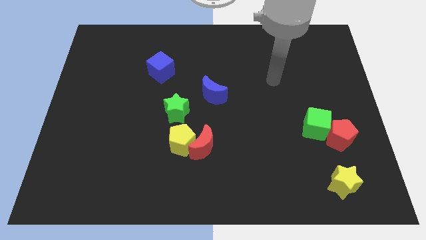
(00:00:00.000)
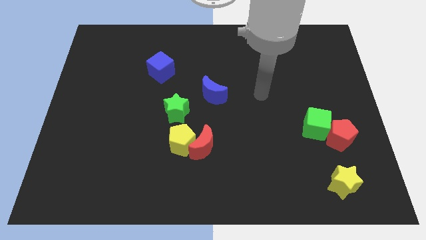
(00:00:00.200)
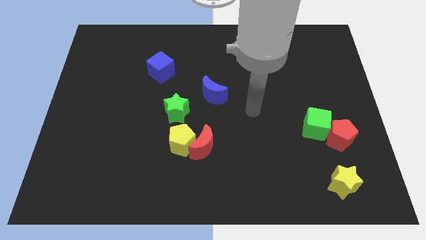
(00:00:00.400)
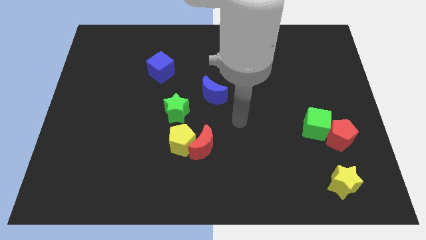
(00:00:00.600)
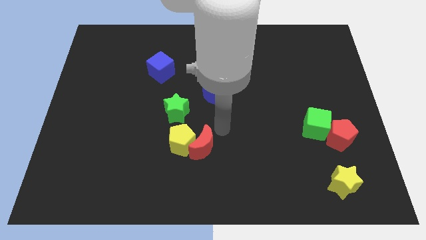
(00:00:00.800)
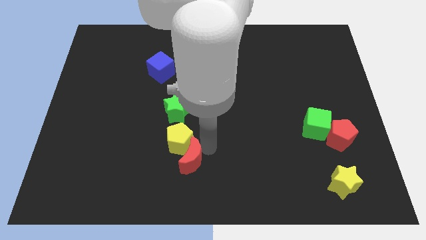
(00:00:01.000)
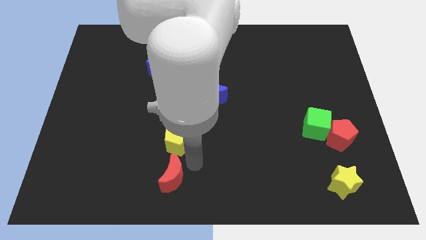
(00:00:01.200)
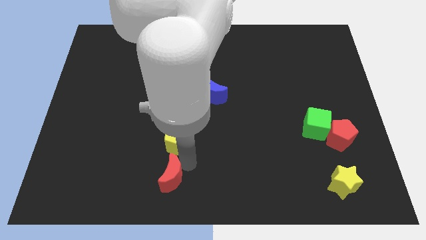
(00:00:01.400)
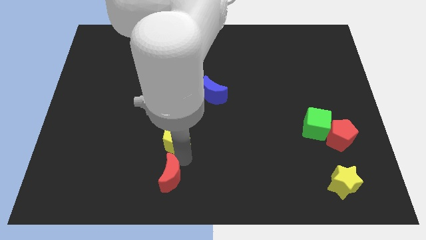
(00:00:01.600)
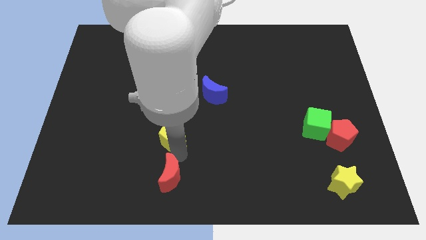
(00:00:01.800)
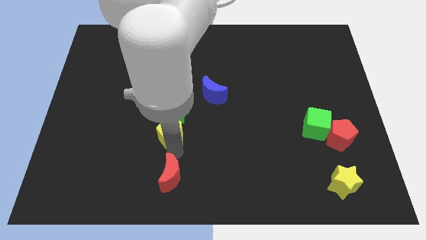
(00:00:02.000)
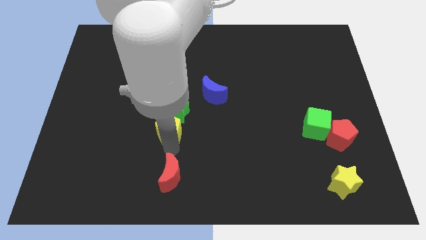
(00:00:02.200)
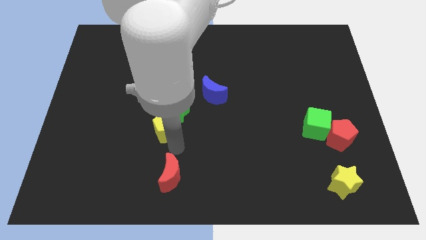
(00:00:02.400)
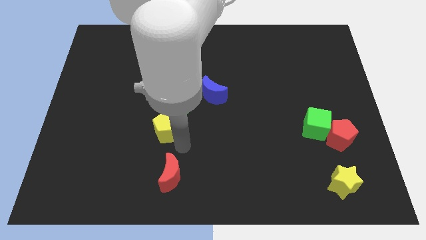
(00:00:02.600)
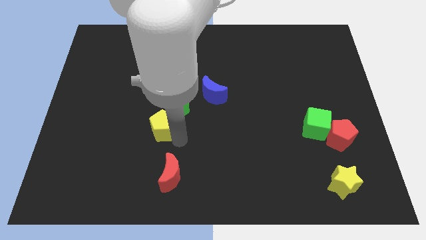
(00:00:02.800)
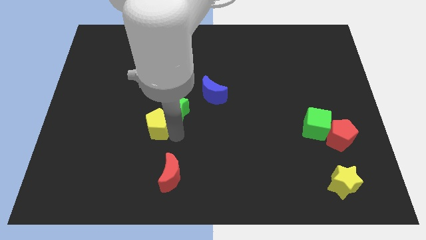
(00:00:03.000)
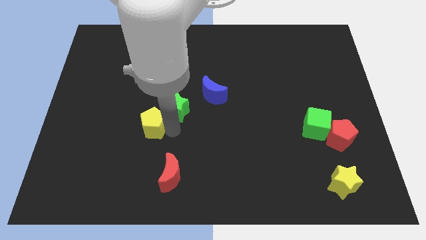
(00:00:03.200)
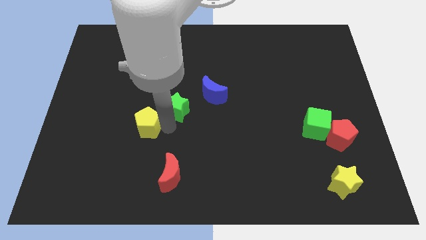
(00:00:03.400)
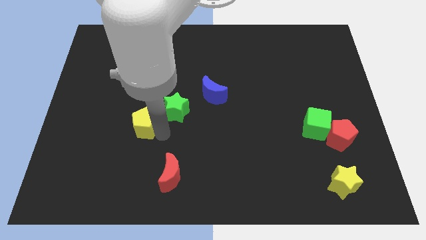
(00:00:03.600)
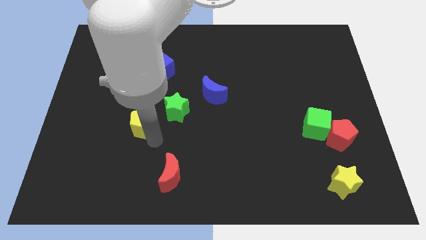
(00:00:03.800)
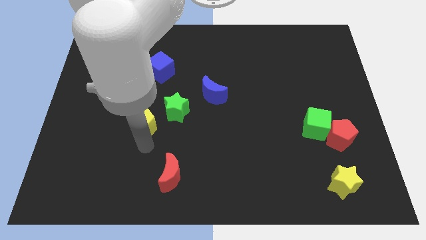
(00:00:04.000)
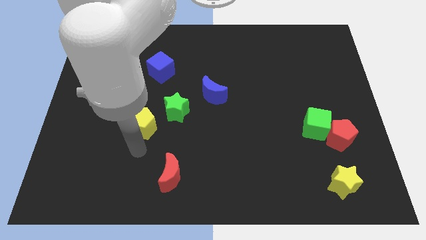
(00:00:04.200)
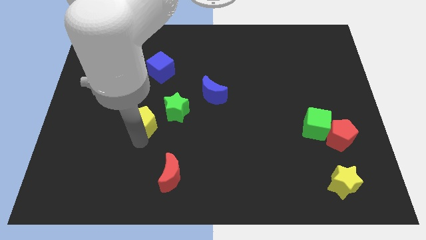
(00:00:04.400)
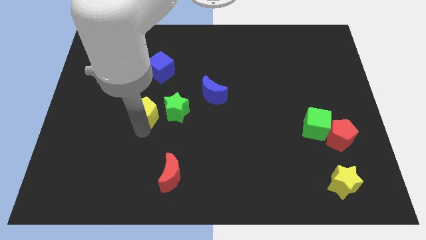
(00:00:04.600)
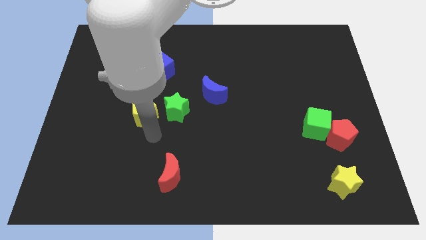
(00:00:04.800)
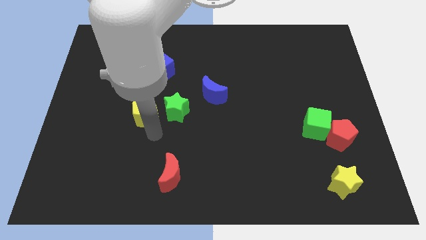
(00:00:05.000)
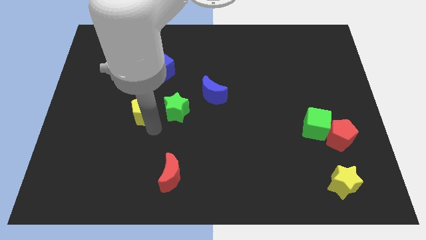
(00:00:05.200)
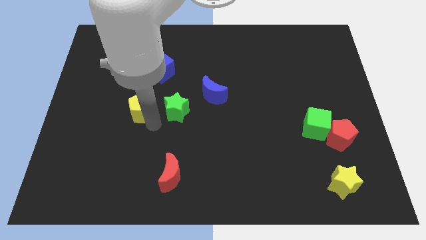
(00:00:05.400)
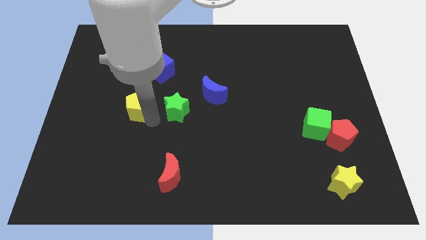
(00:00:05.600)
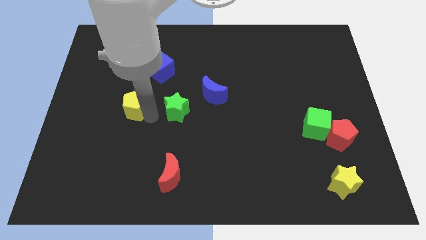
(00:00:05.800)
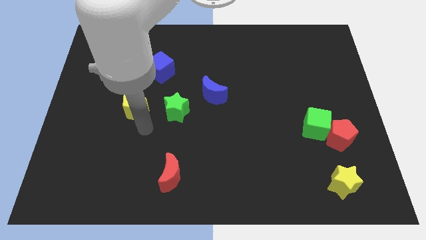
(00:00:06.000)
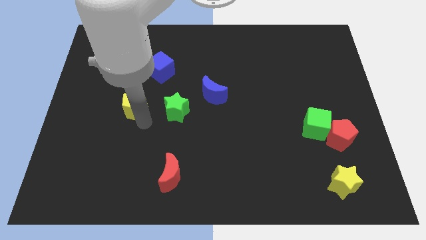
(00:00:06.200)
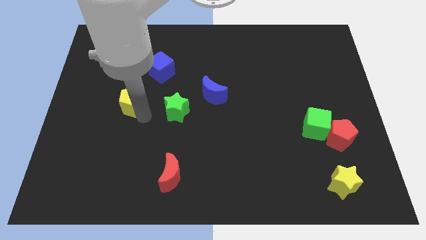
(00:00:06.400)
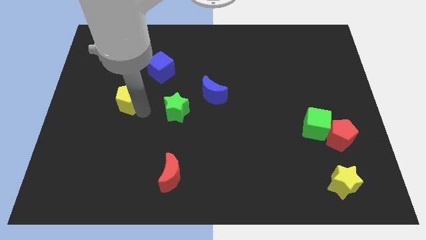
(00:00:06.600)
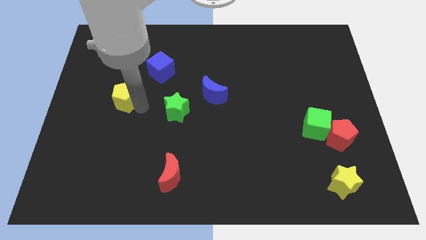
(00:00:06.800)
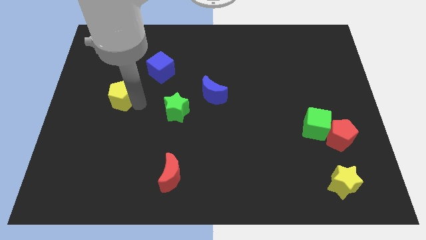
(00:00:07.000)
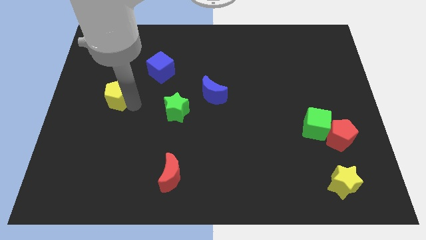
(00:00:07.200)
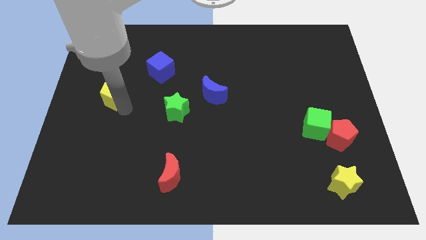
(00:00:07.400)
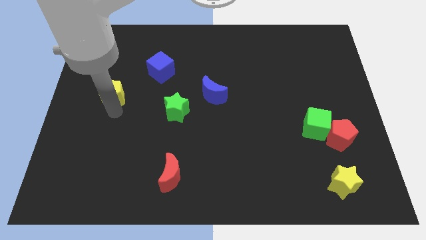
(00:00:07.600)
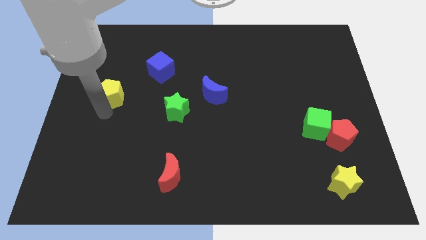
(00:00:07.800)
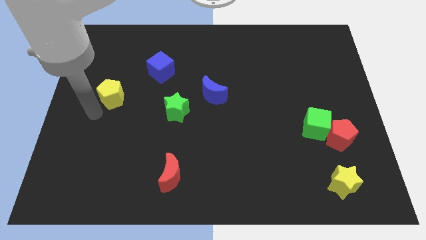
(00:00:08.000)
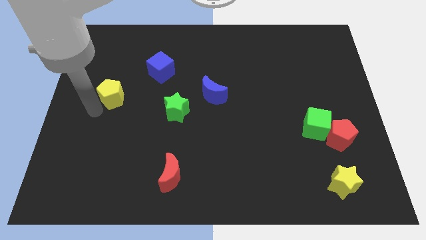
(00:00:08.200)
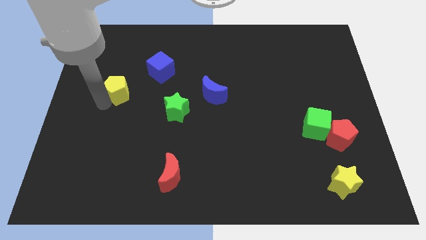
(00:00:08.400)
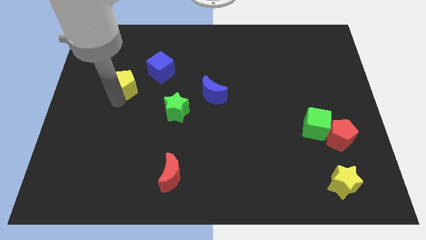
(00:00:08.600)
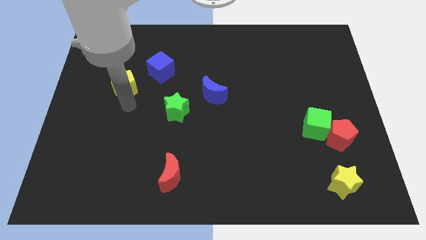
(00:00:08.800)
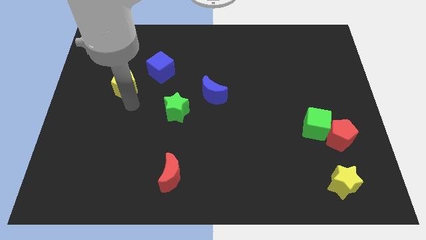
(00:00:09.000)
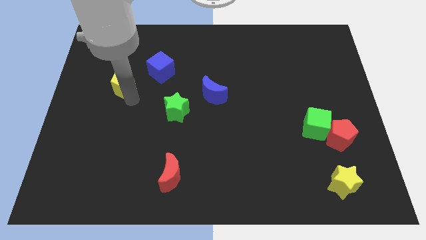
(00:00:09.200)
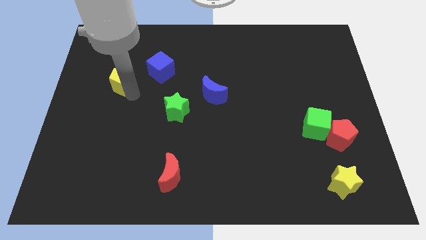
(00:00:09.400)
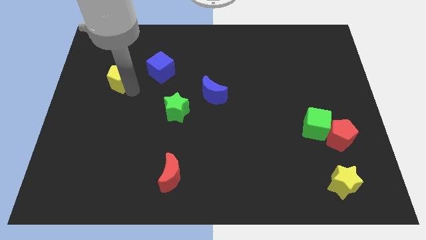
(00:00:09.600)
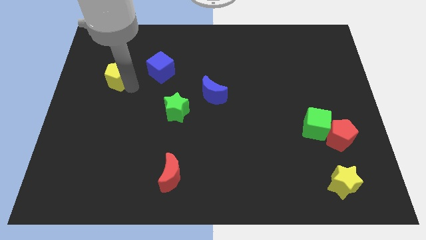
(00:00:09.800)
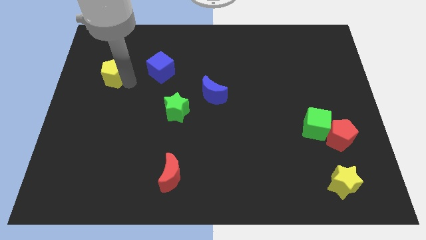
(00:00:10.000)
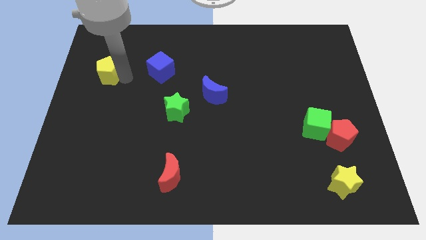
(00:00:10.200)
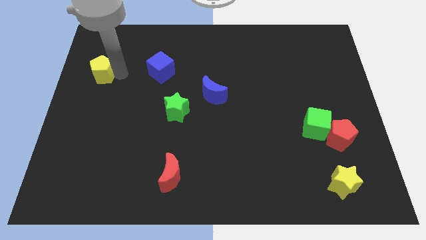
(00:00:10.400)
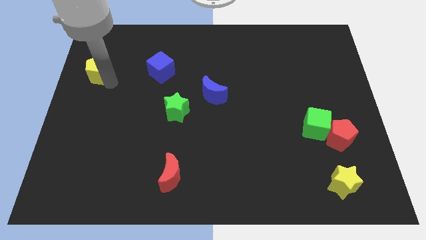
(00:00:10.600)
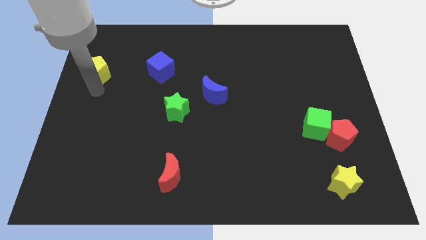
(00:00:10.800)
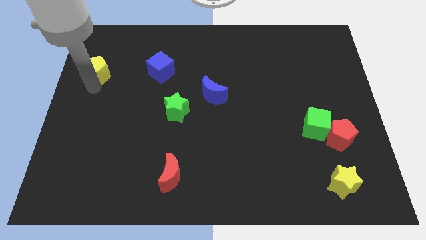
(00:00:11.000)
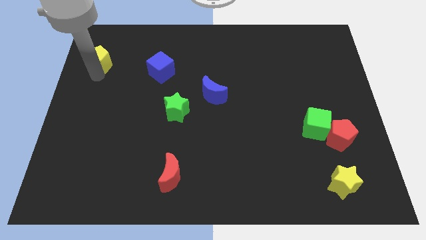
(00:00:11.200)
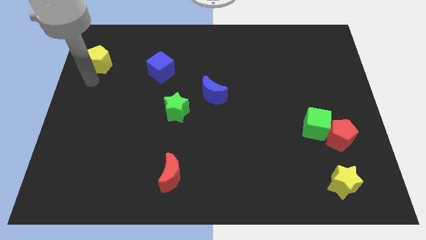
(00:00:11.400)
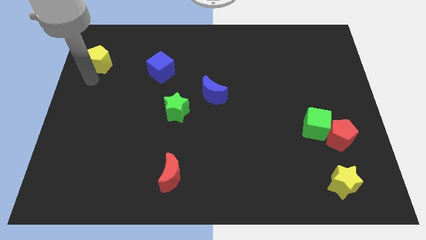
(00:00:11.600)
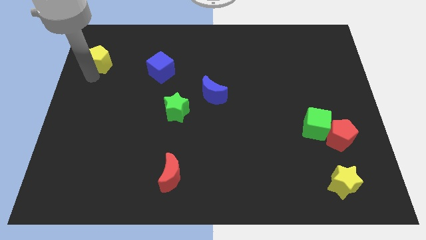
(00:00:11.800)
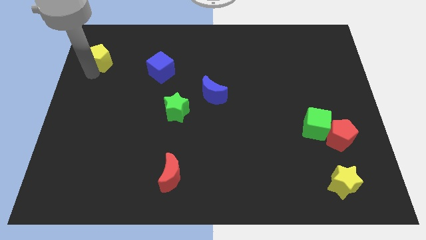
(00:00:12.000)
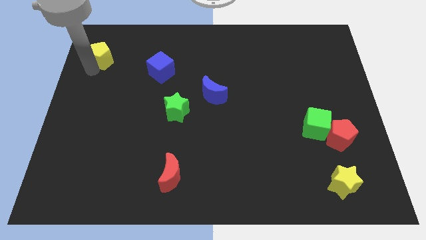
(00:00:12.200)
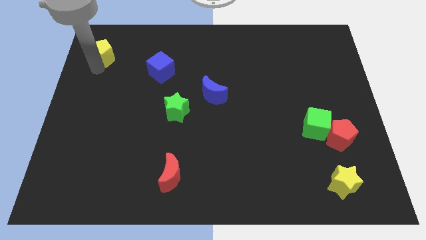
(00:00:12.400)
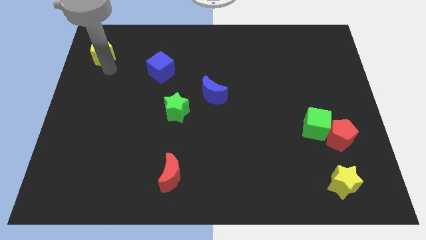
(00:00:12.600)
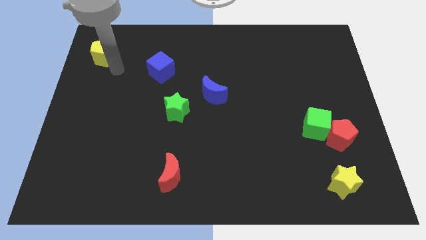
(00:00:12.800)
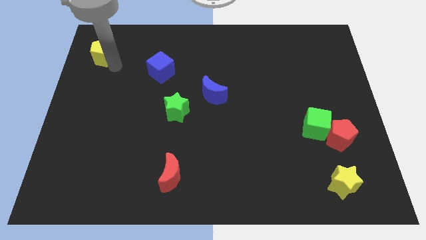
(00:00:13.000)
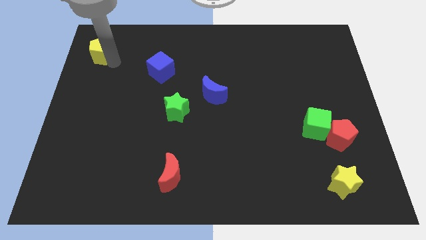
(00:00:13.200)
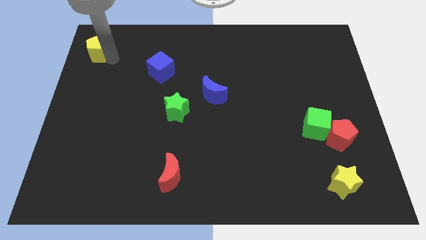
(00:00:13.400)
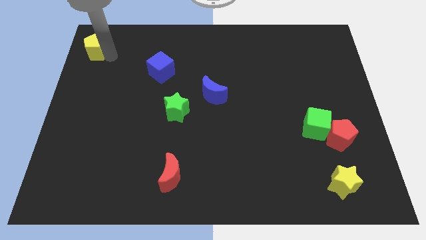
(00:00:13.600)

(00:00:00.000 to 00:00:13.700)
move the yellow pentagon to the top left
